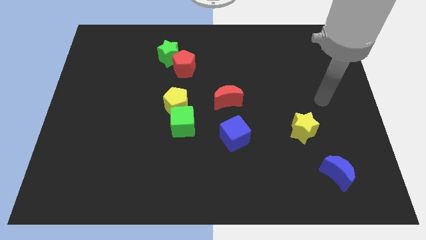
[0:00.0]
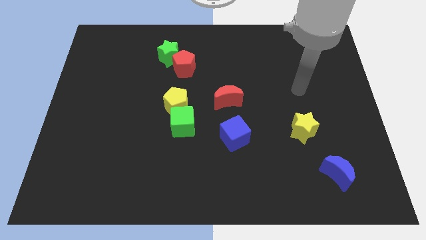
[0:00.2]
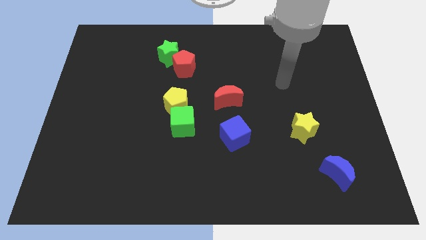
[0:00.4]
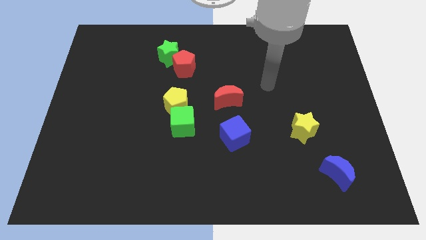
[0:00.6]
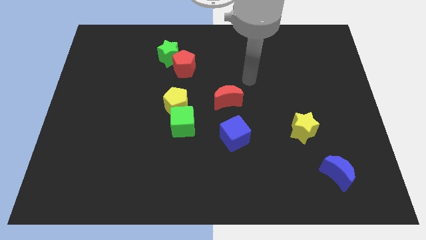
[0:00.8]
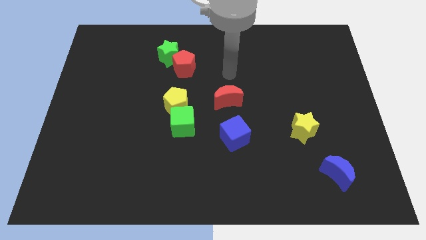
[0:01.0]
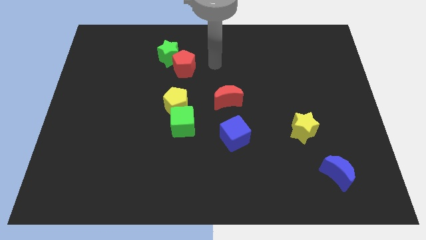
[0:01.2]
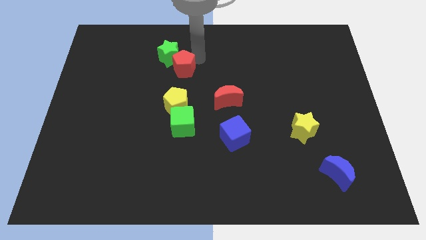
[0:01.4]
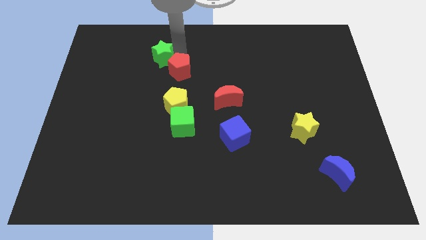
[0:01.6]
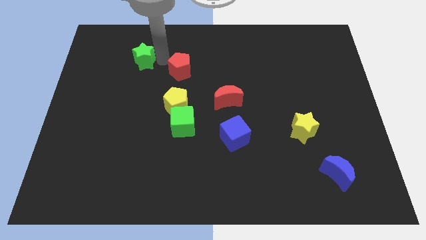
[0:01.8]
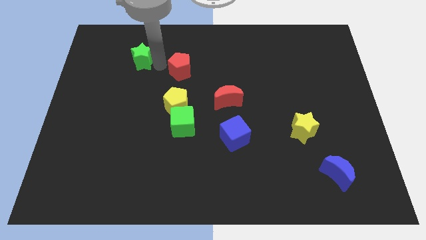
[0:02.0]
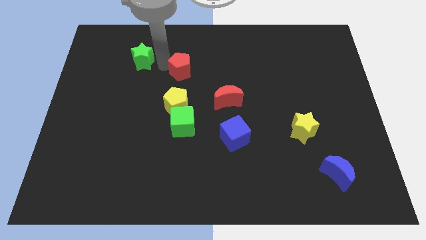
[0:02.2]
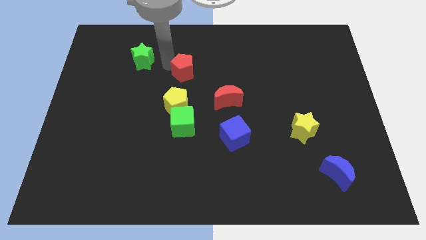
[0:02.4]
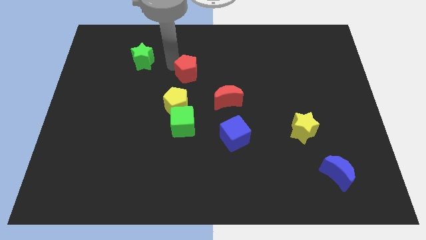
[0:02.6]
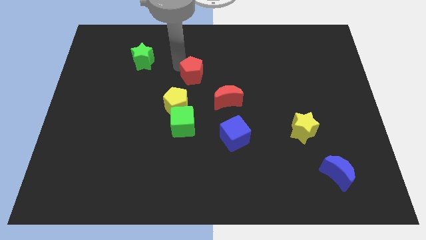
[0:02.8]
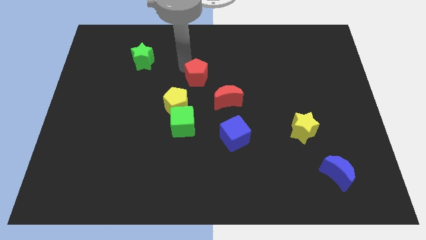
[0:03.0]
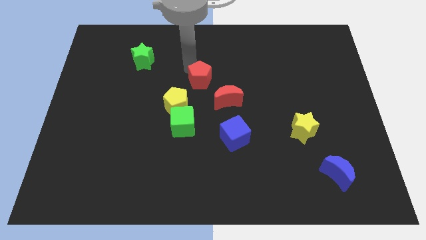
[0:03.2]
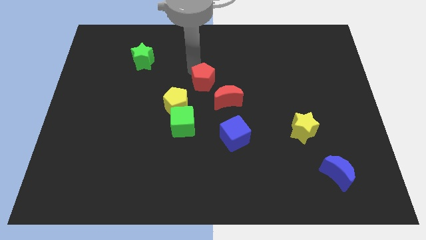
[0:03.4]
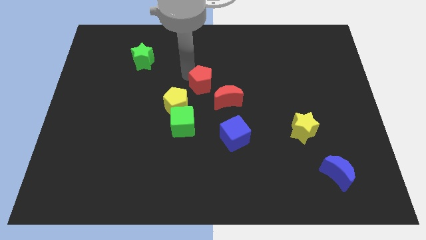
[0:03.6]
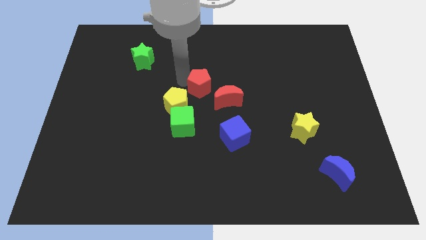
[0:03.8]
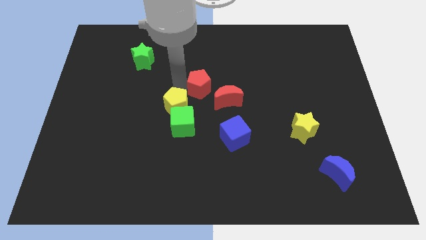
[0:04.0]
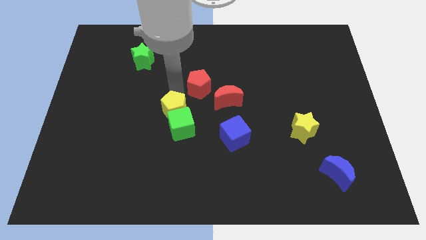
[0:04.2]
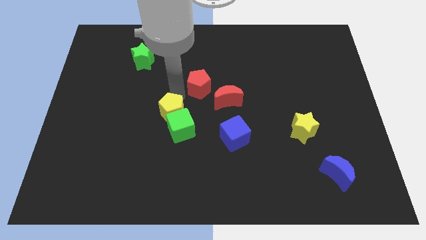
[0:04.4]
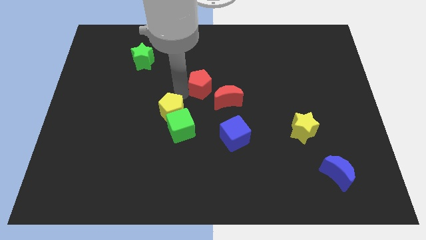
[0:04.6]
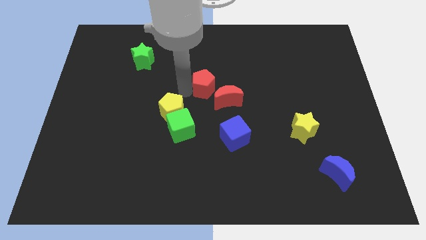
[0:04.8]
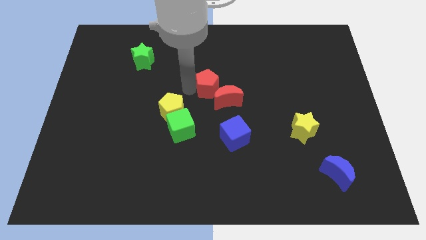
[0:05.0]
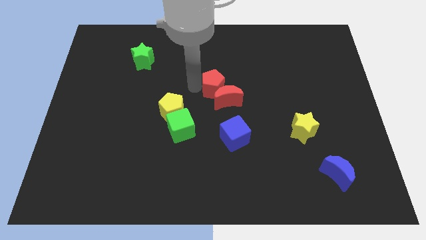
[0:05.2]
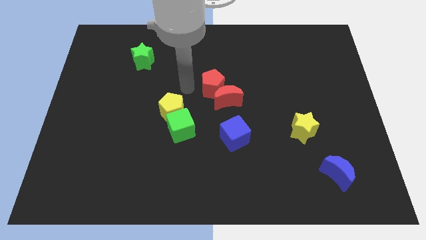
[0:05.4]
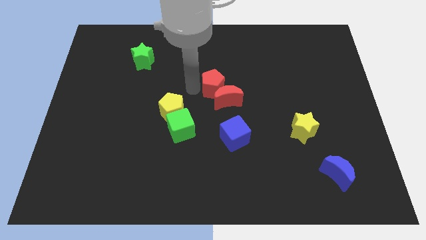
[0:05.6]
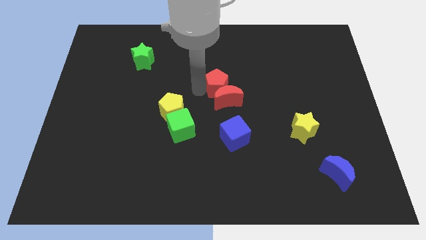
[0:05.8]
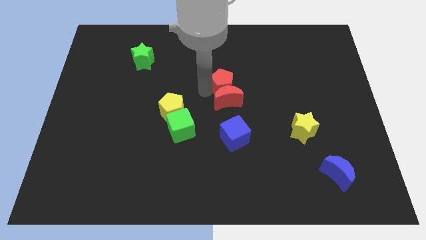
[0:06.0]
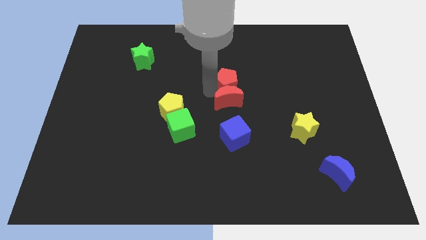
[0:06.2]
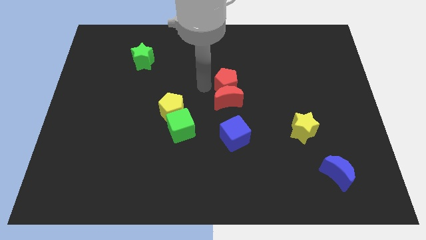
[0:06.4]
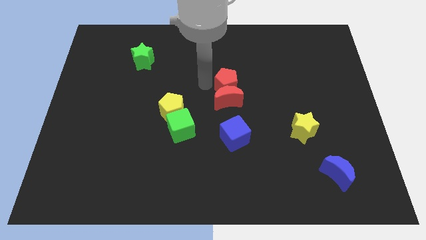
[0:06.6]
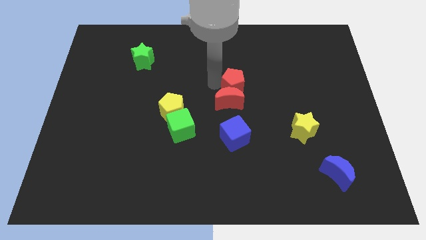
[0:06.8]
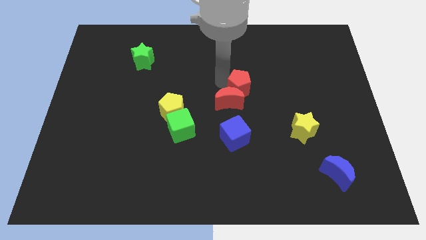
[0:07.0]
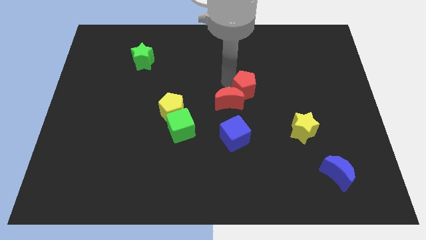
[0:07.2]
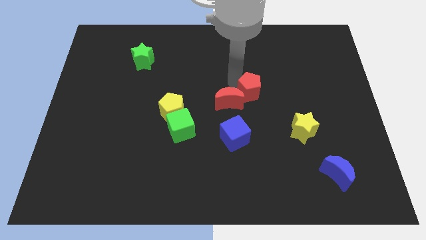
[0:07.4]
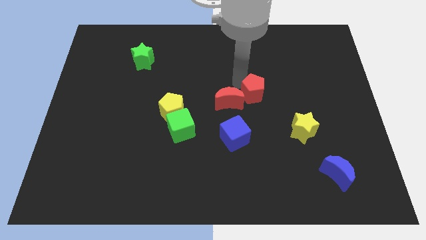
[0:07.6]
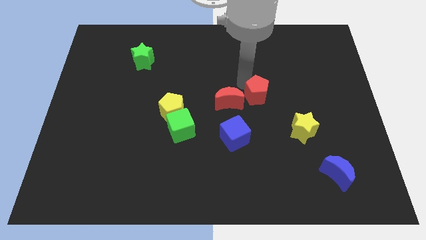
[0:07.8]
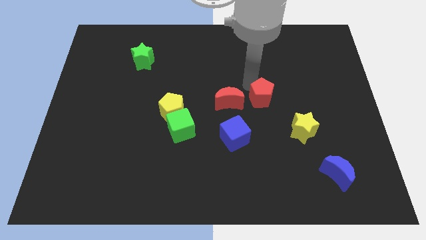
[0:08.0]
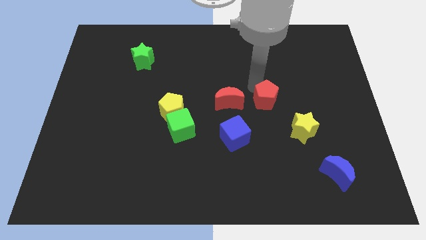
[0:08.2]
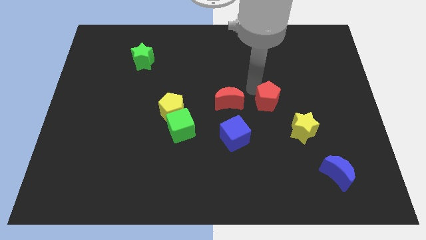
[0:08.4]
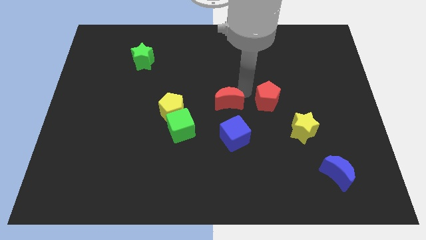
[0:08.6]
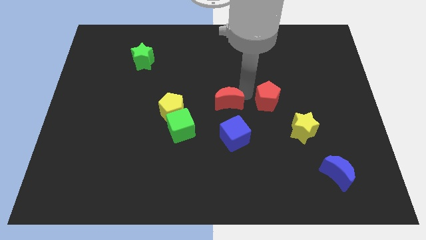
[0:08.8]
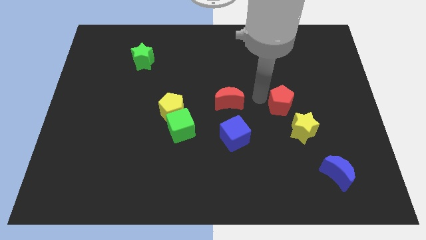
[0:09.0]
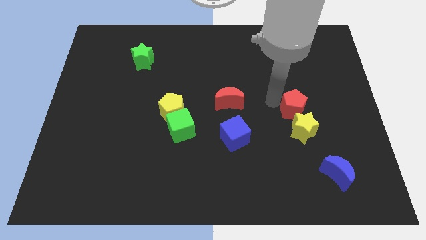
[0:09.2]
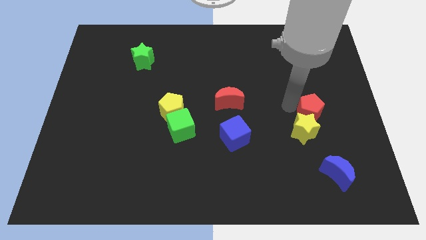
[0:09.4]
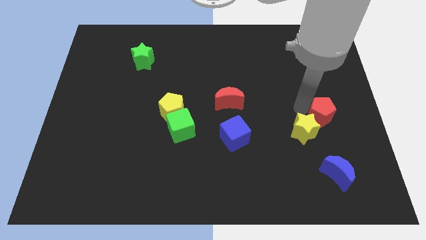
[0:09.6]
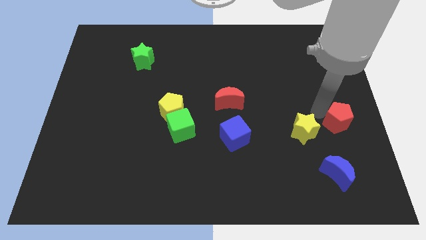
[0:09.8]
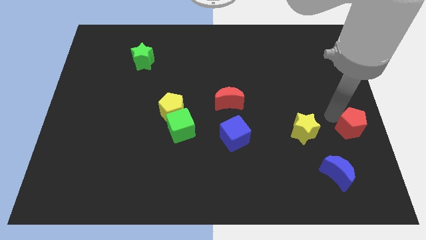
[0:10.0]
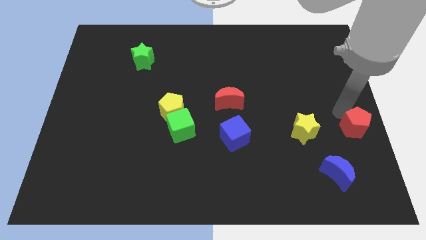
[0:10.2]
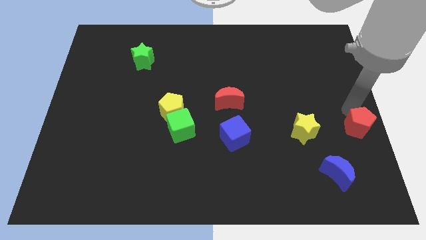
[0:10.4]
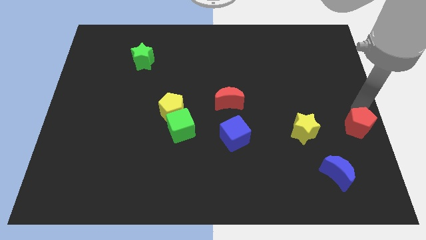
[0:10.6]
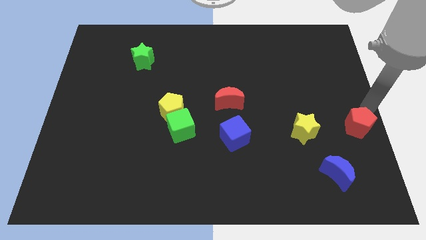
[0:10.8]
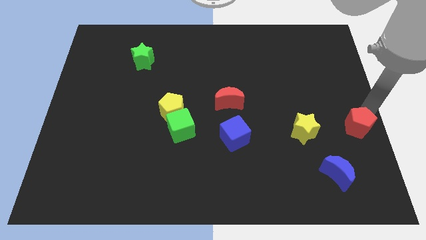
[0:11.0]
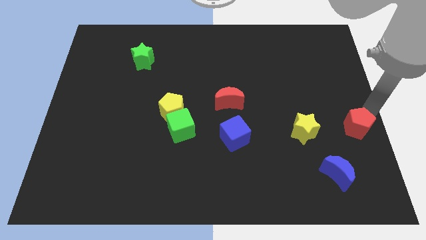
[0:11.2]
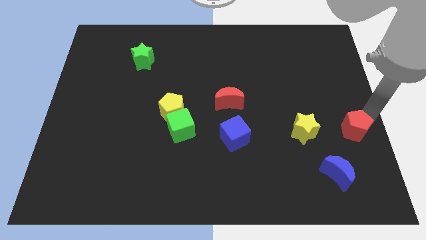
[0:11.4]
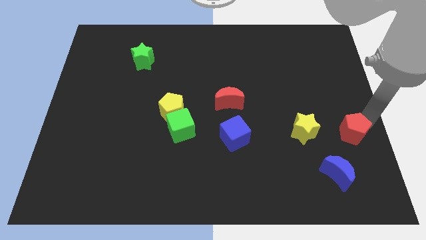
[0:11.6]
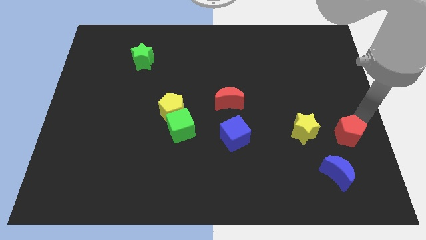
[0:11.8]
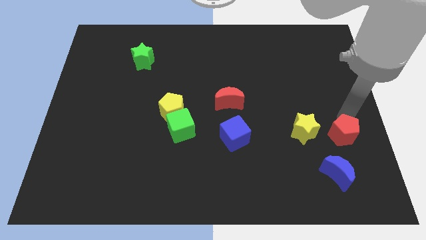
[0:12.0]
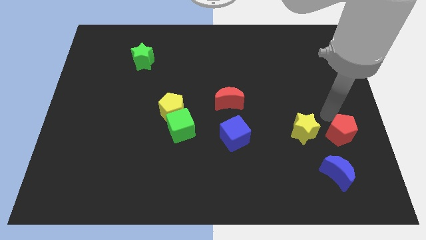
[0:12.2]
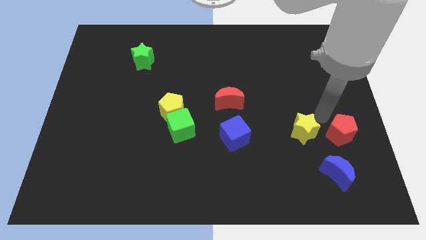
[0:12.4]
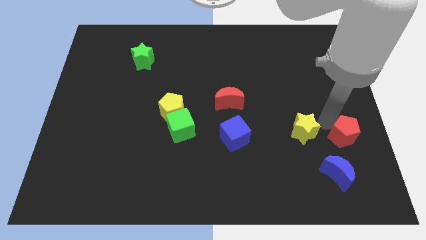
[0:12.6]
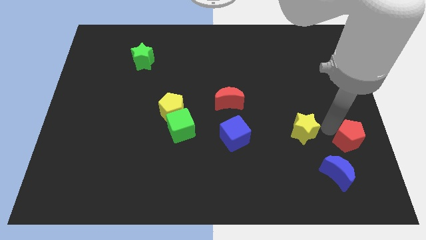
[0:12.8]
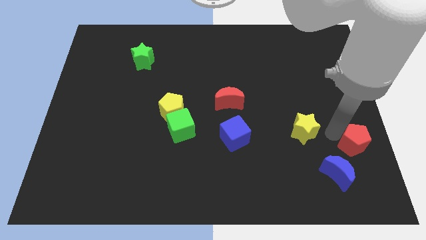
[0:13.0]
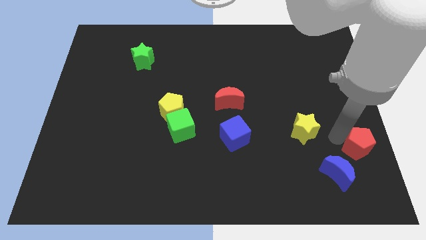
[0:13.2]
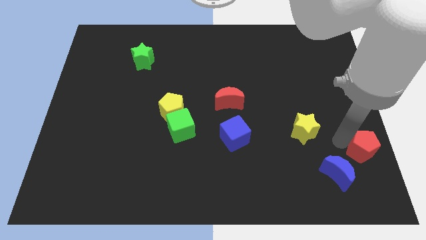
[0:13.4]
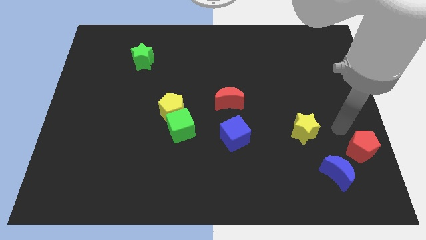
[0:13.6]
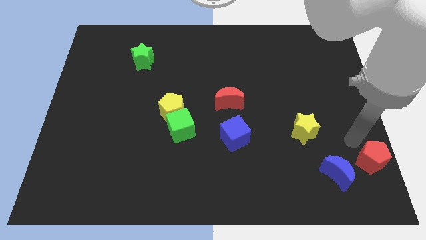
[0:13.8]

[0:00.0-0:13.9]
slide the red pentagon to the bottom right of the board

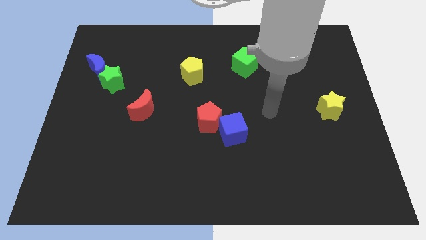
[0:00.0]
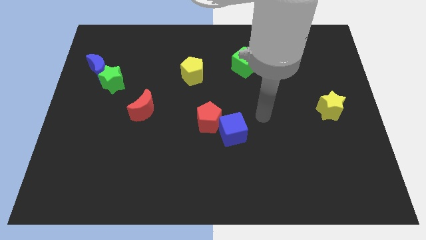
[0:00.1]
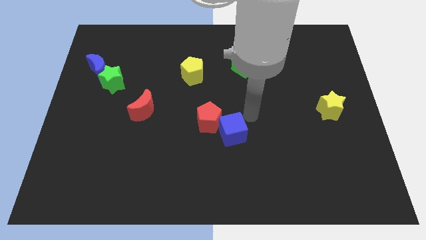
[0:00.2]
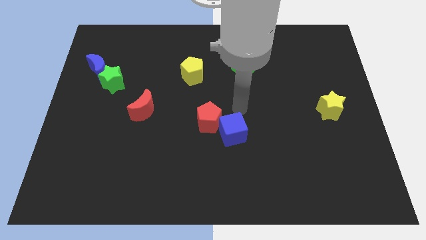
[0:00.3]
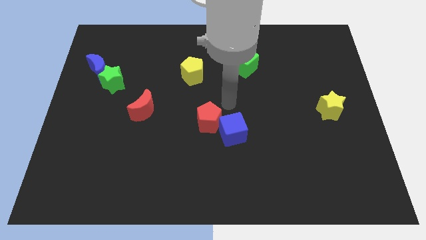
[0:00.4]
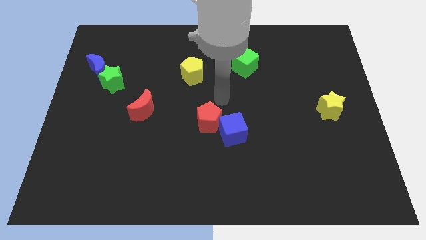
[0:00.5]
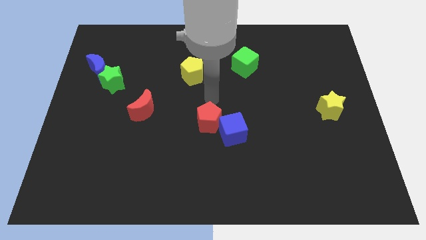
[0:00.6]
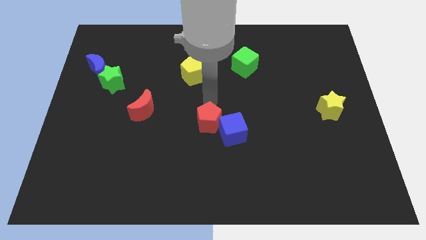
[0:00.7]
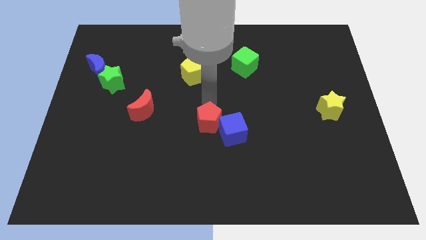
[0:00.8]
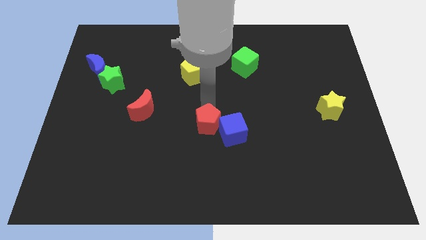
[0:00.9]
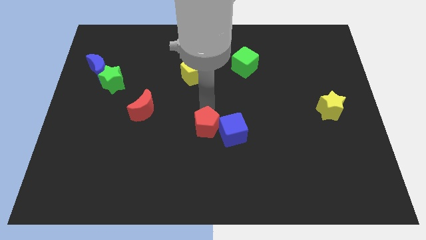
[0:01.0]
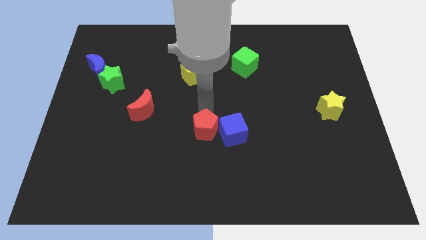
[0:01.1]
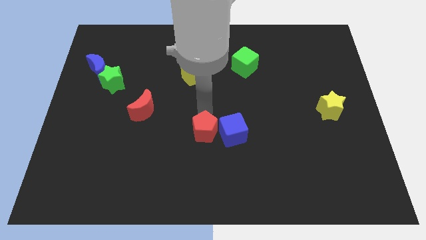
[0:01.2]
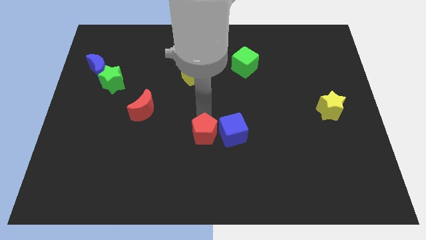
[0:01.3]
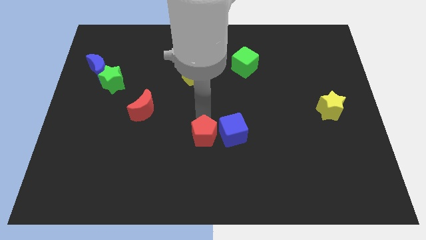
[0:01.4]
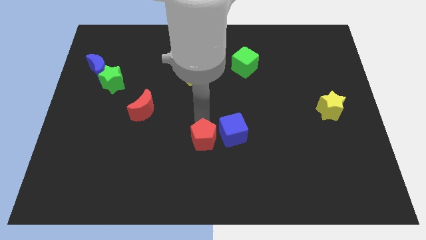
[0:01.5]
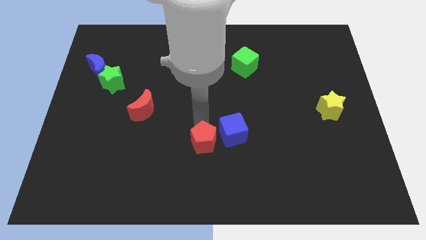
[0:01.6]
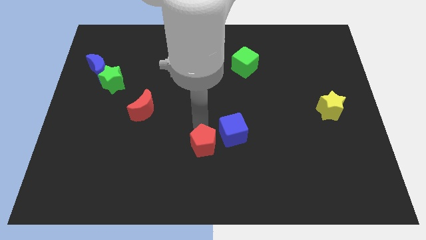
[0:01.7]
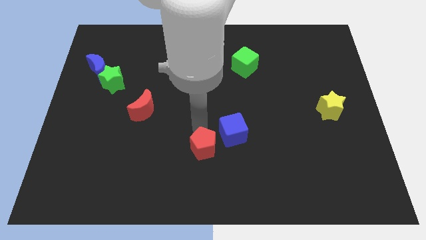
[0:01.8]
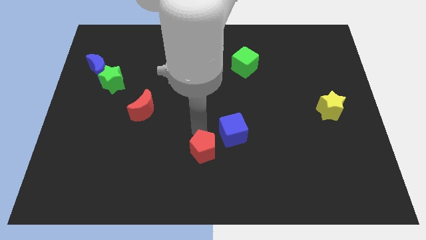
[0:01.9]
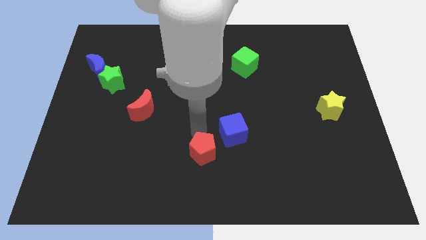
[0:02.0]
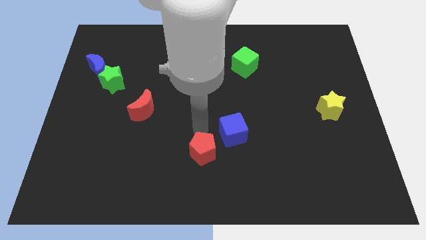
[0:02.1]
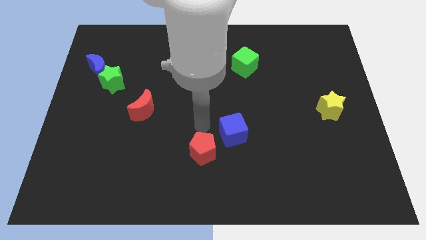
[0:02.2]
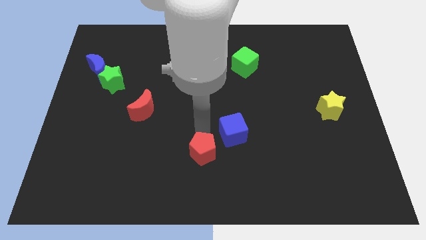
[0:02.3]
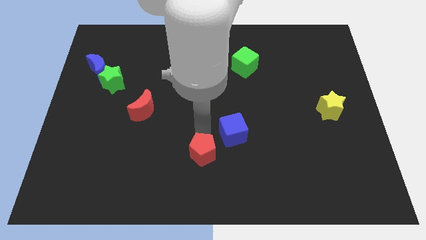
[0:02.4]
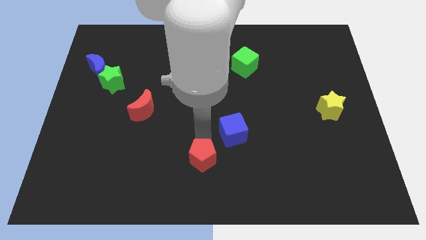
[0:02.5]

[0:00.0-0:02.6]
put the red pentagon to the bottom
